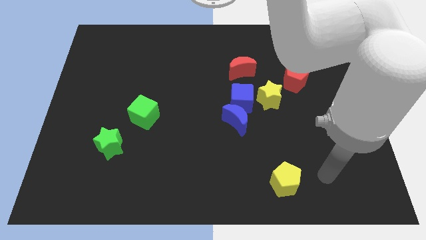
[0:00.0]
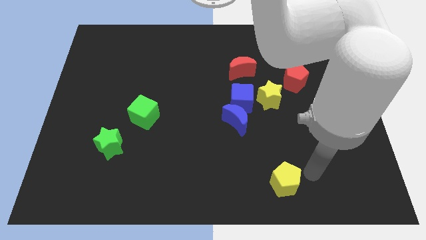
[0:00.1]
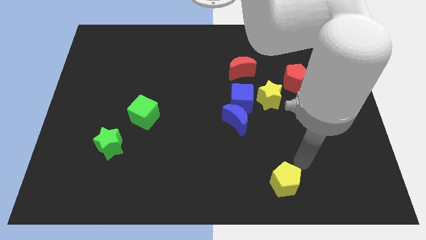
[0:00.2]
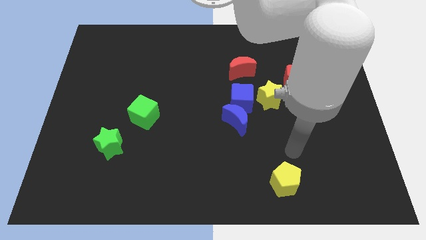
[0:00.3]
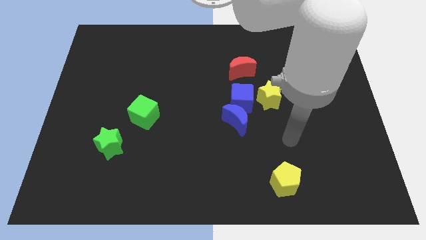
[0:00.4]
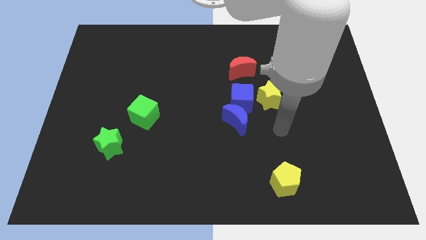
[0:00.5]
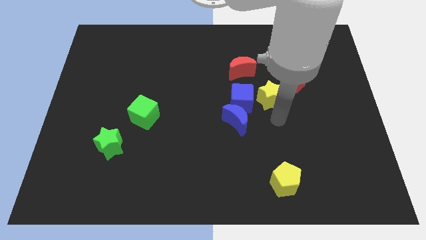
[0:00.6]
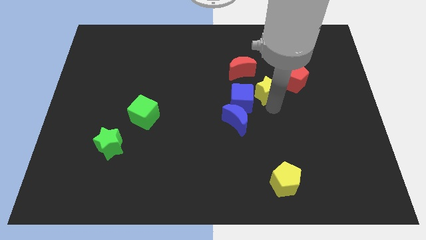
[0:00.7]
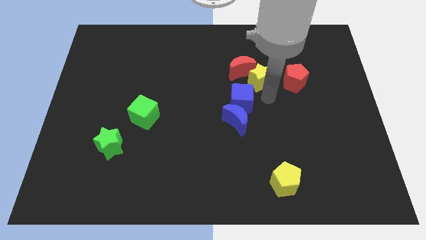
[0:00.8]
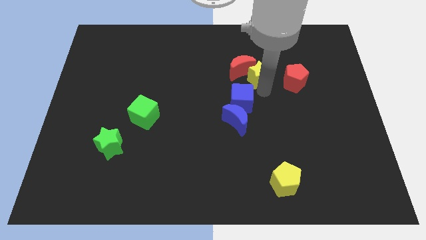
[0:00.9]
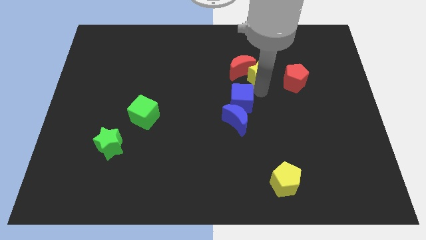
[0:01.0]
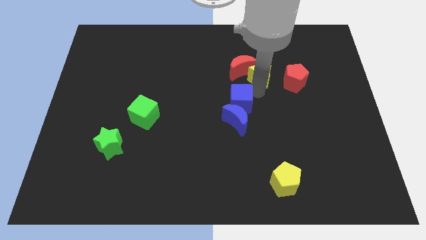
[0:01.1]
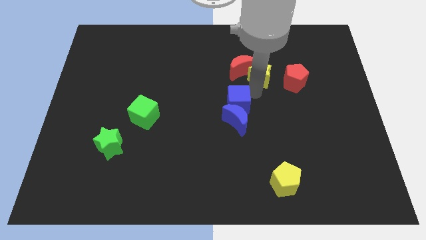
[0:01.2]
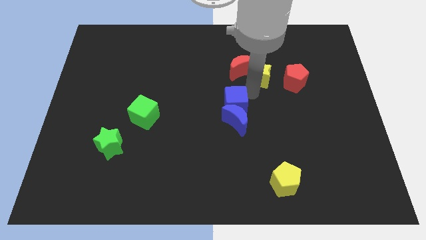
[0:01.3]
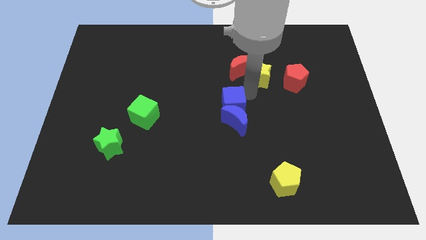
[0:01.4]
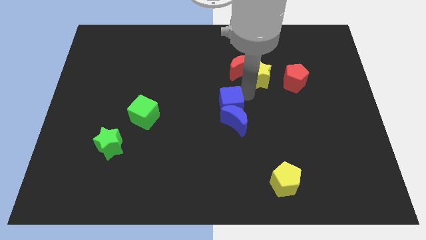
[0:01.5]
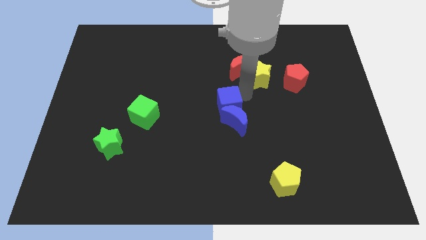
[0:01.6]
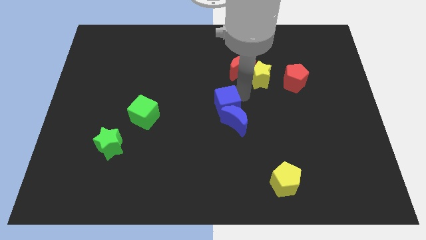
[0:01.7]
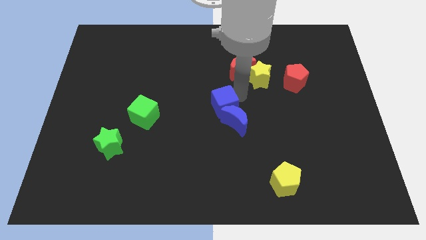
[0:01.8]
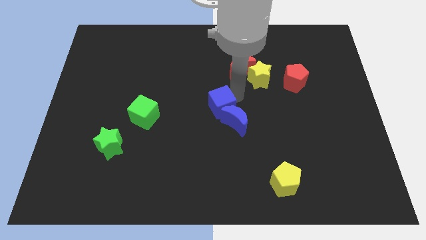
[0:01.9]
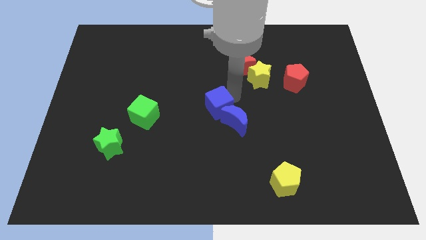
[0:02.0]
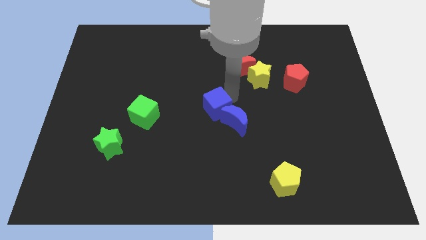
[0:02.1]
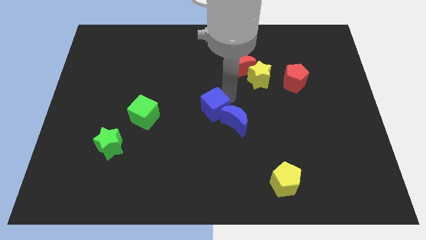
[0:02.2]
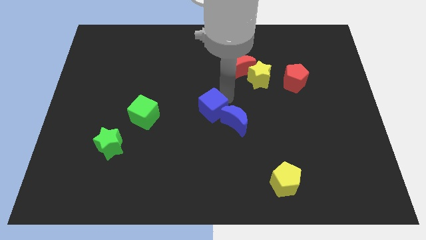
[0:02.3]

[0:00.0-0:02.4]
separate the blue cube from the blue moon, yellow star, and red moon

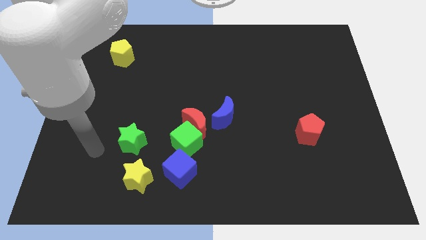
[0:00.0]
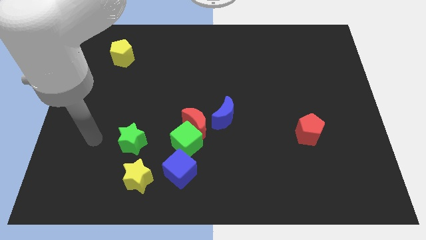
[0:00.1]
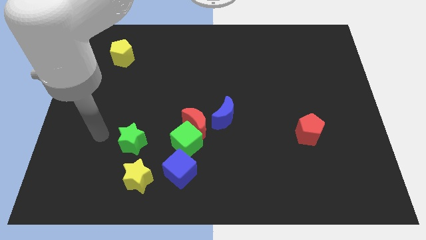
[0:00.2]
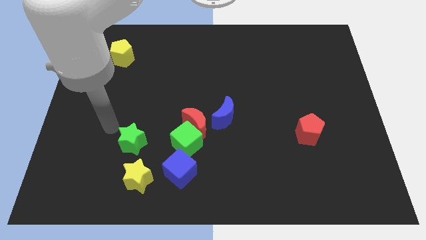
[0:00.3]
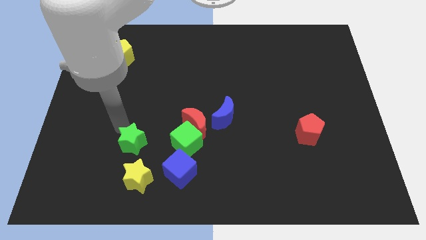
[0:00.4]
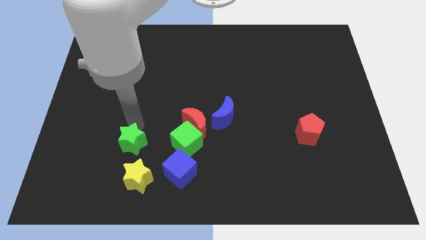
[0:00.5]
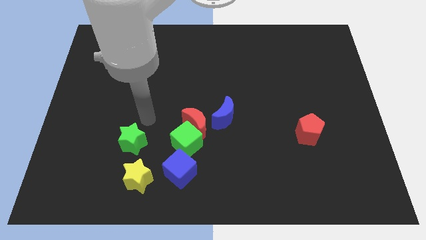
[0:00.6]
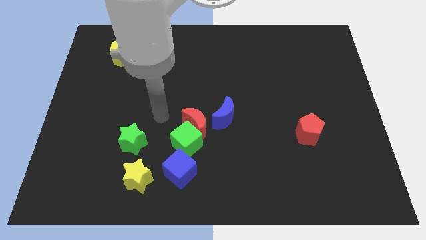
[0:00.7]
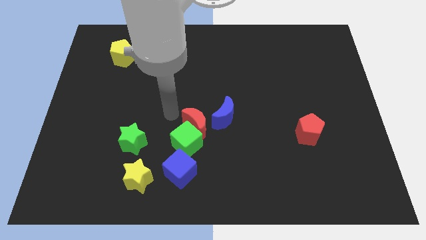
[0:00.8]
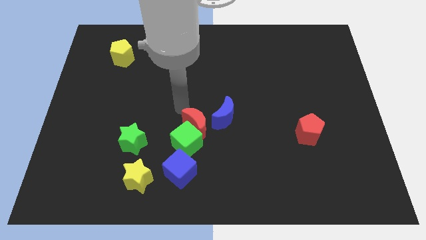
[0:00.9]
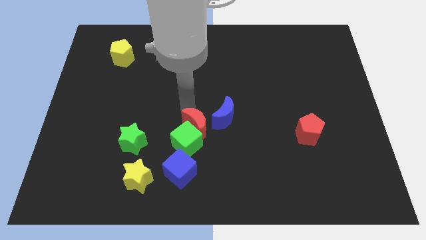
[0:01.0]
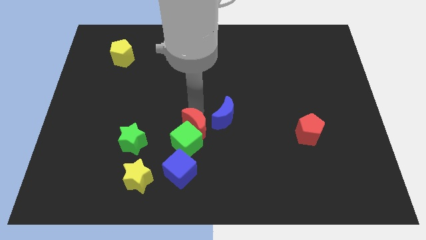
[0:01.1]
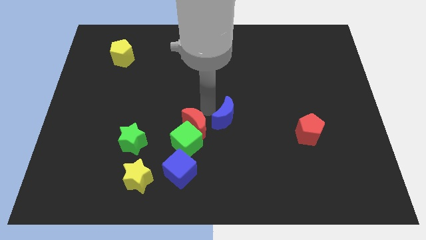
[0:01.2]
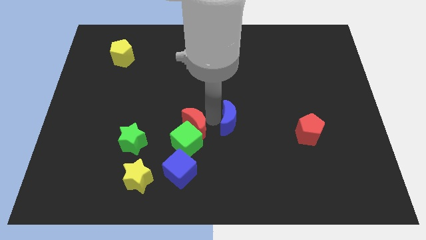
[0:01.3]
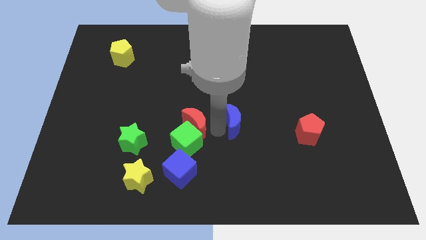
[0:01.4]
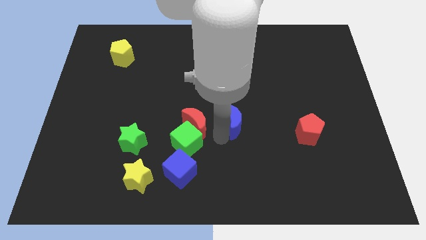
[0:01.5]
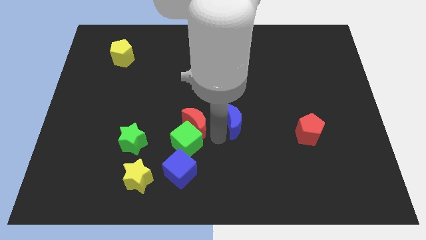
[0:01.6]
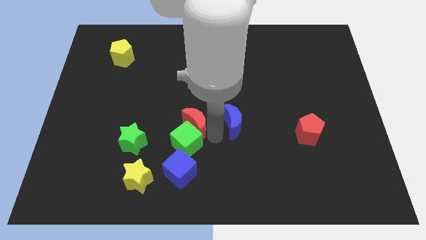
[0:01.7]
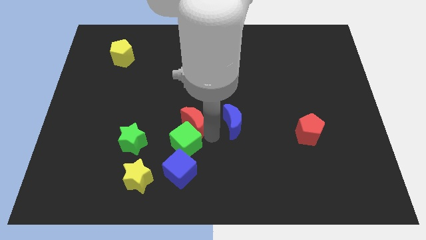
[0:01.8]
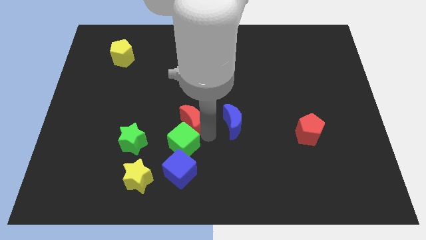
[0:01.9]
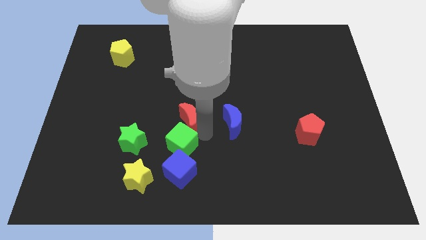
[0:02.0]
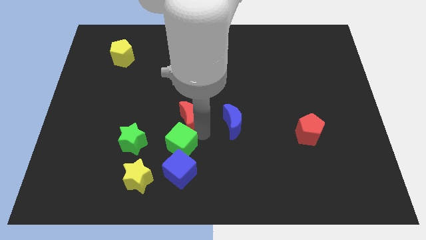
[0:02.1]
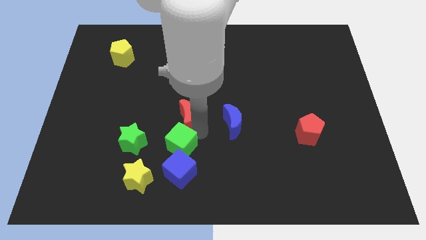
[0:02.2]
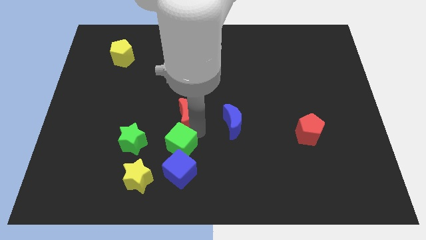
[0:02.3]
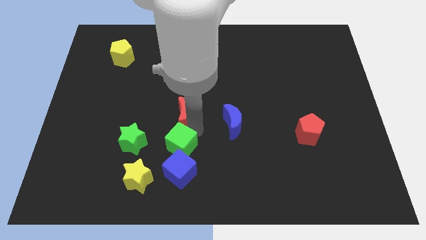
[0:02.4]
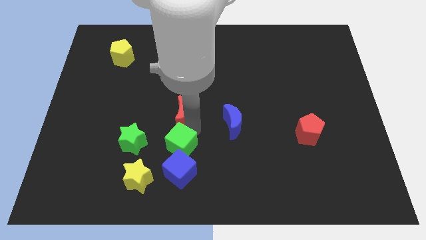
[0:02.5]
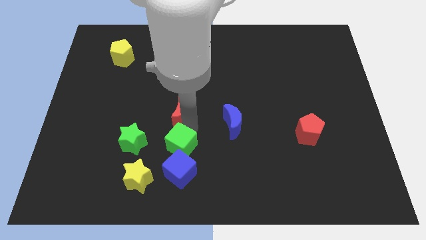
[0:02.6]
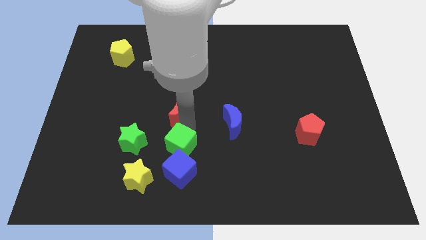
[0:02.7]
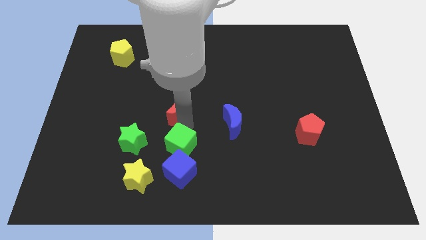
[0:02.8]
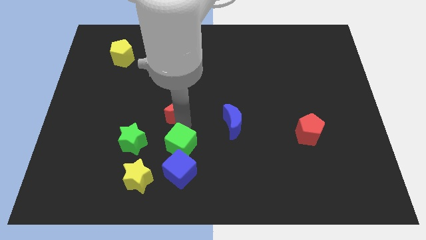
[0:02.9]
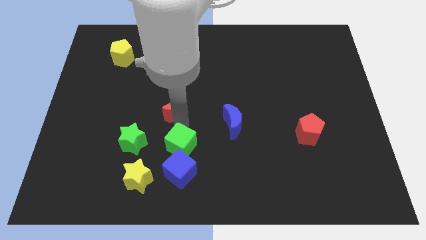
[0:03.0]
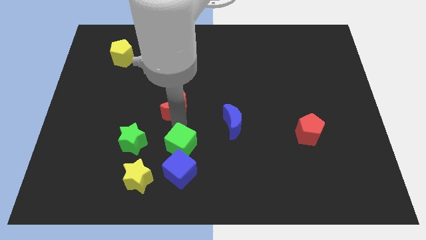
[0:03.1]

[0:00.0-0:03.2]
move the red moon away from the green cube and blue moon

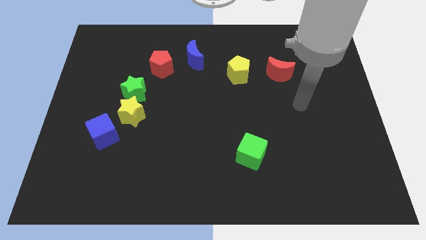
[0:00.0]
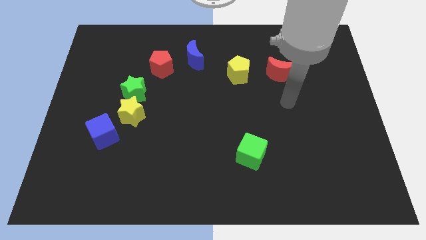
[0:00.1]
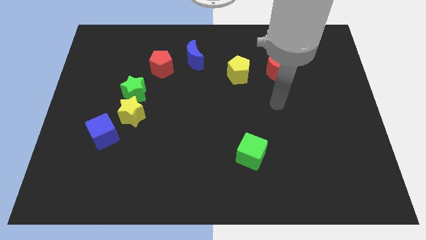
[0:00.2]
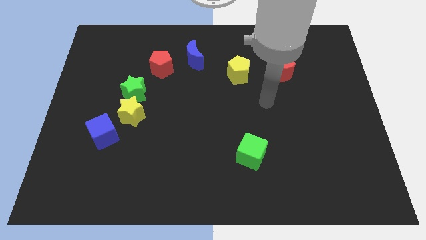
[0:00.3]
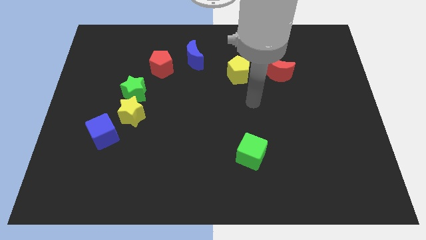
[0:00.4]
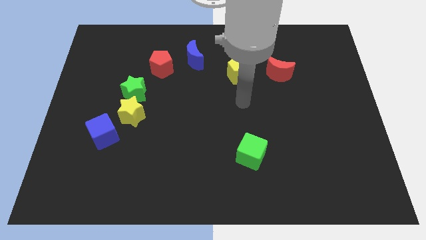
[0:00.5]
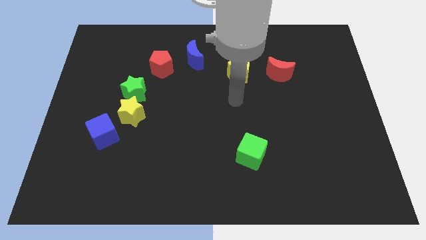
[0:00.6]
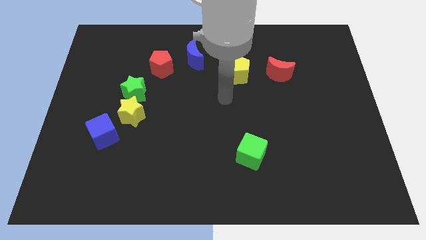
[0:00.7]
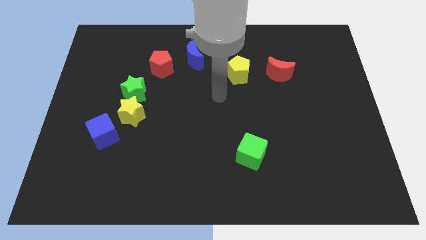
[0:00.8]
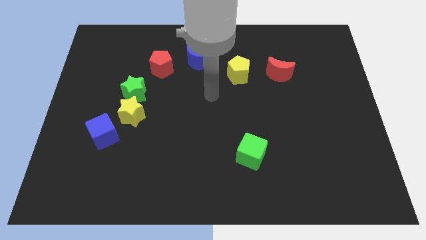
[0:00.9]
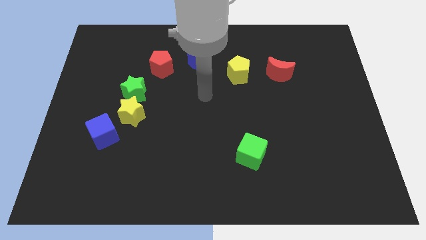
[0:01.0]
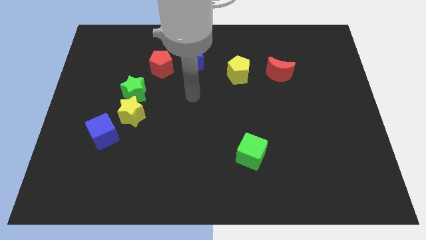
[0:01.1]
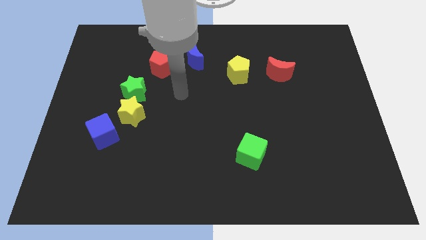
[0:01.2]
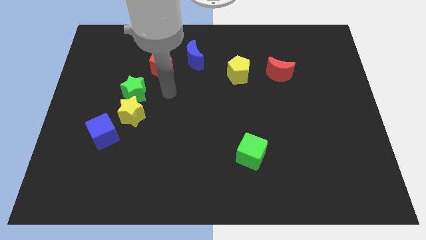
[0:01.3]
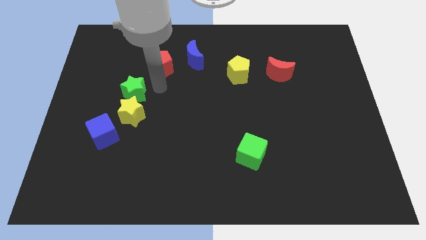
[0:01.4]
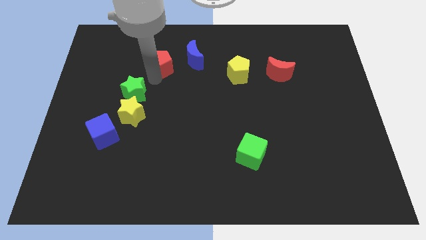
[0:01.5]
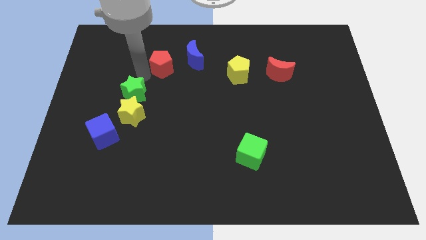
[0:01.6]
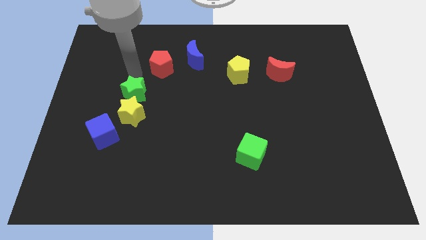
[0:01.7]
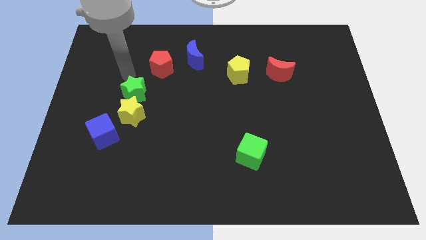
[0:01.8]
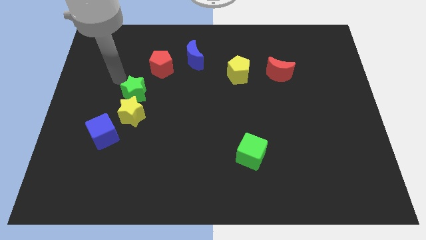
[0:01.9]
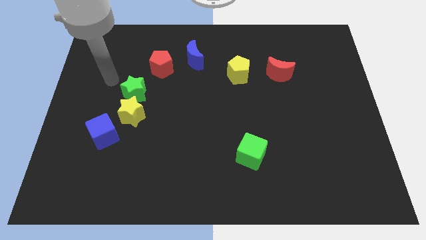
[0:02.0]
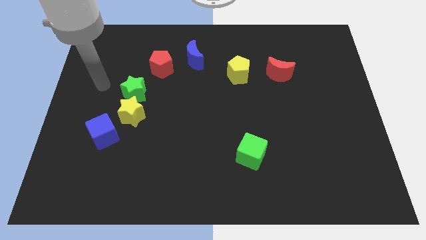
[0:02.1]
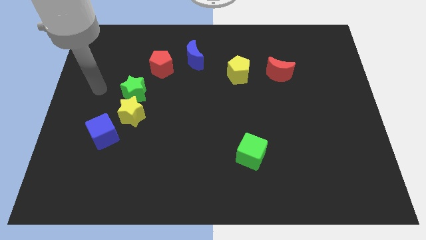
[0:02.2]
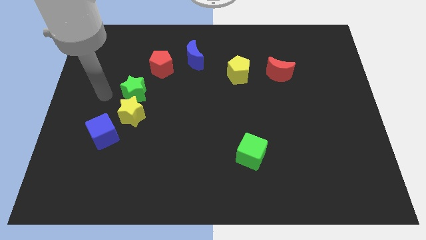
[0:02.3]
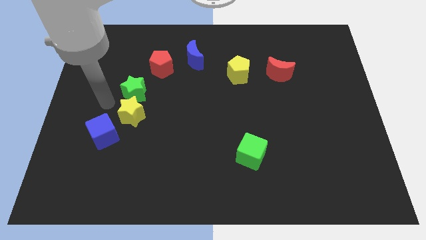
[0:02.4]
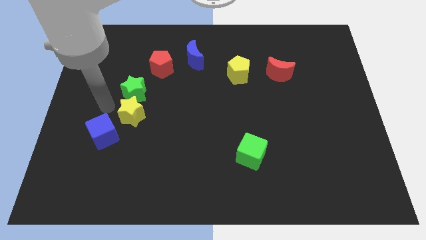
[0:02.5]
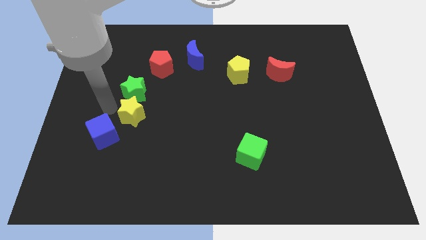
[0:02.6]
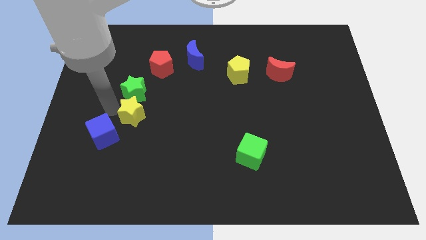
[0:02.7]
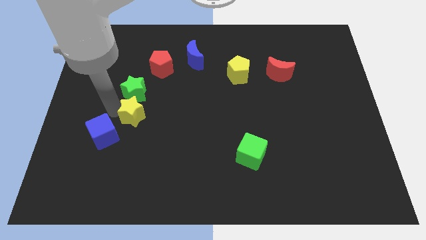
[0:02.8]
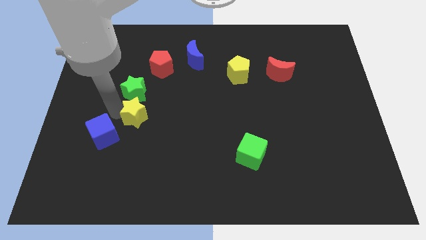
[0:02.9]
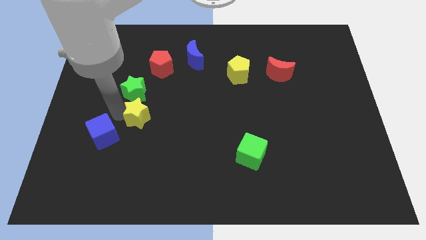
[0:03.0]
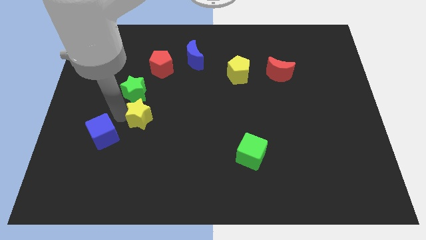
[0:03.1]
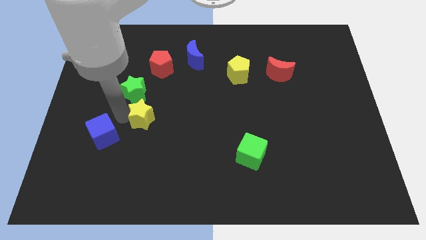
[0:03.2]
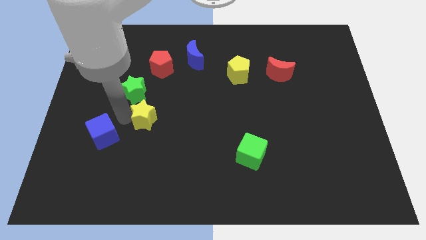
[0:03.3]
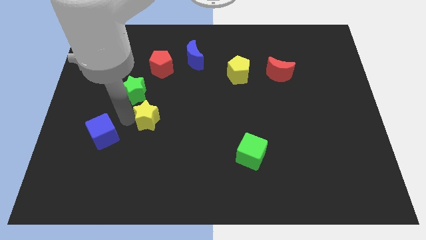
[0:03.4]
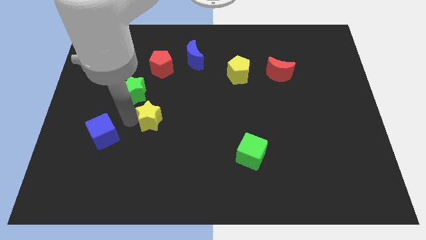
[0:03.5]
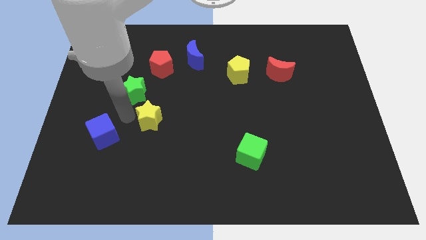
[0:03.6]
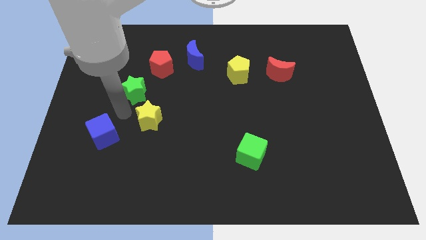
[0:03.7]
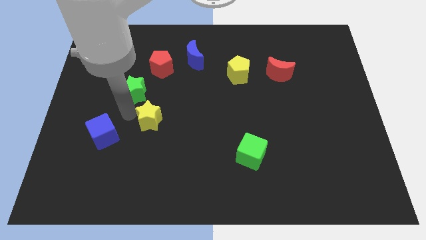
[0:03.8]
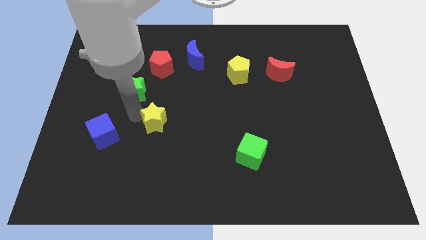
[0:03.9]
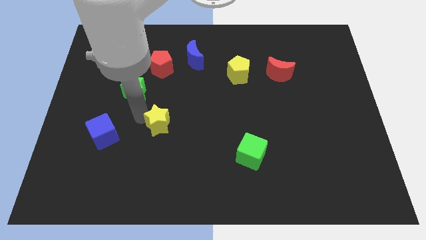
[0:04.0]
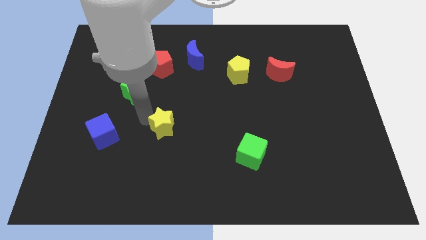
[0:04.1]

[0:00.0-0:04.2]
separate the yellow star from the green star and blue cube
